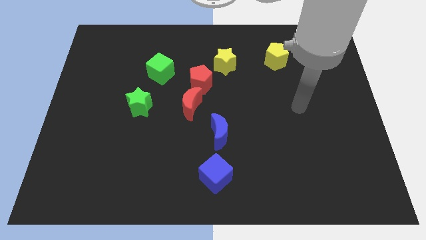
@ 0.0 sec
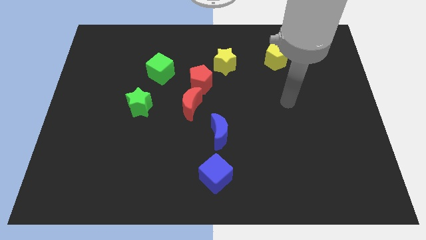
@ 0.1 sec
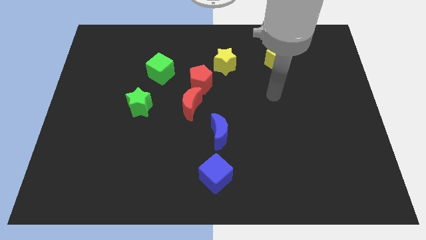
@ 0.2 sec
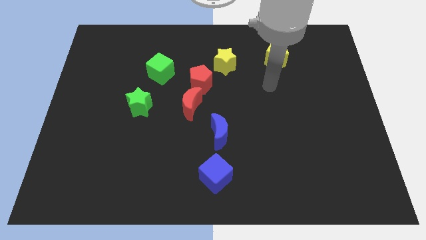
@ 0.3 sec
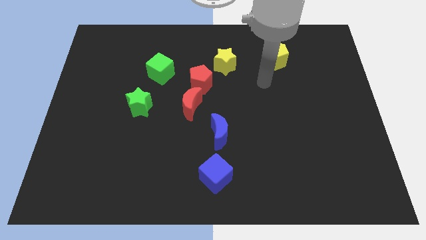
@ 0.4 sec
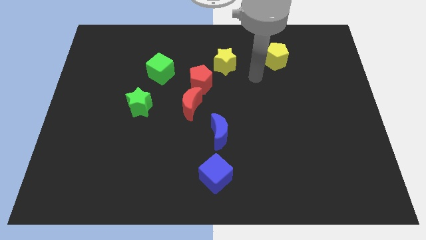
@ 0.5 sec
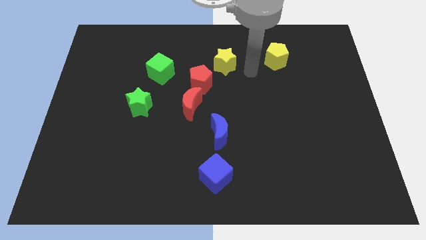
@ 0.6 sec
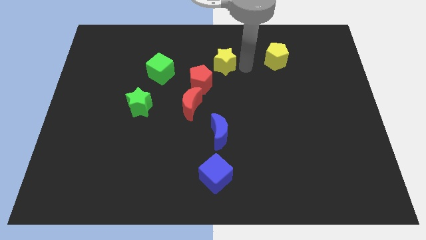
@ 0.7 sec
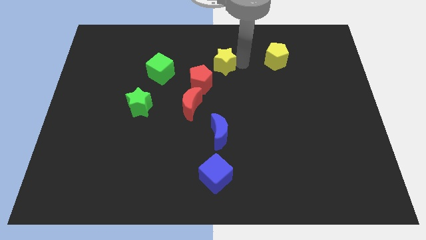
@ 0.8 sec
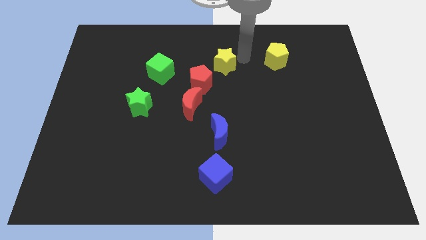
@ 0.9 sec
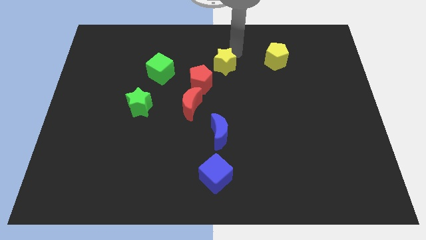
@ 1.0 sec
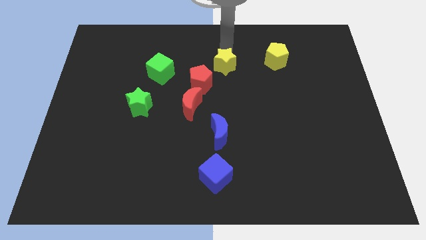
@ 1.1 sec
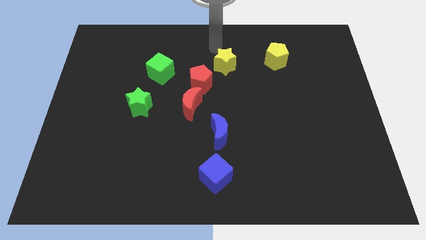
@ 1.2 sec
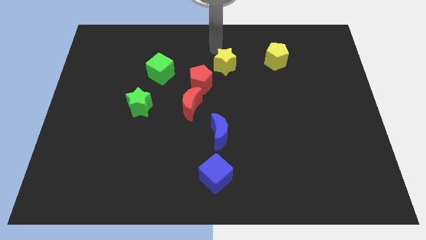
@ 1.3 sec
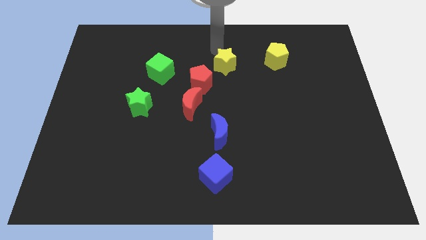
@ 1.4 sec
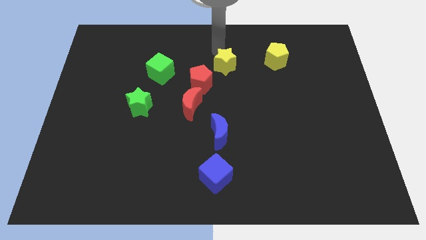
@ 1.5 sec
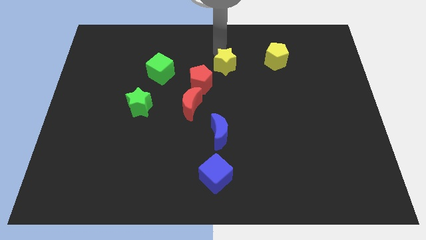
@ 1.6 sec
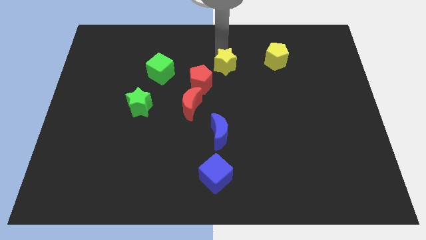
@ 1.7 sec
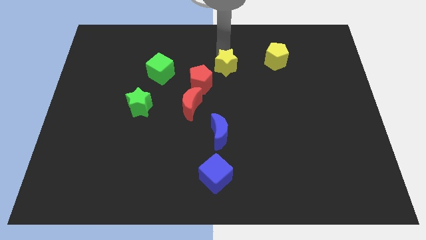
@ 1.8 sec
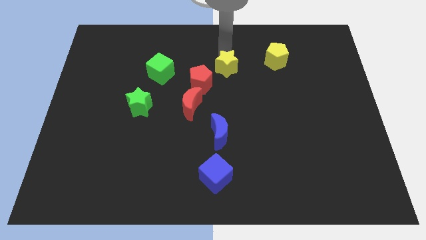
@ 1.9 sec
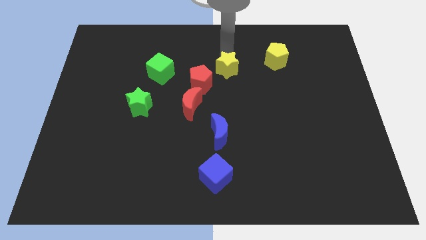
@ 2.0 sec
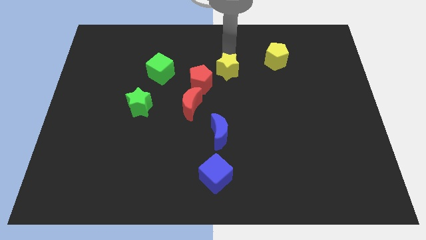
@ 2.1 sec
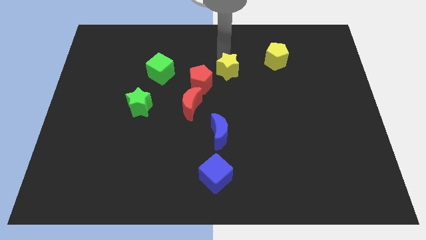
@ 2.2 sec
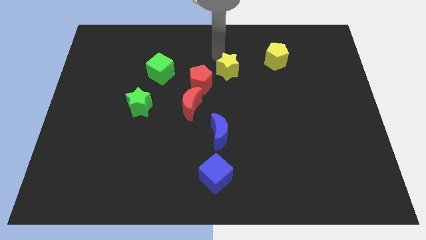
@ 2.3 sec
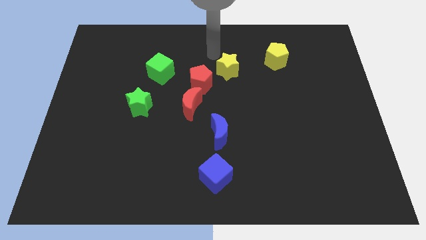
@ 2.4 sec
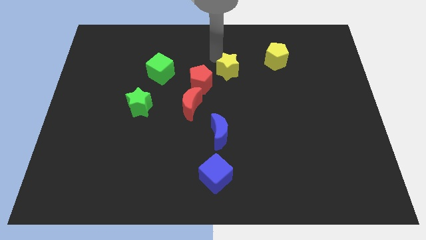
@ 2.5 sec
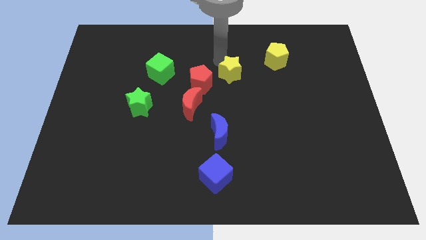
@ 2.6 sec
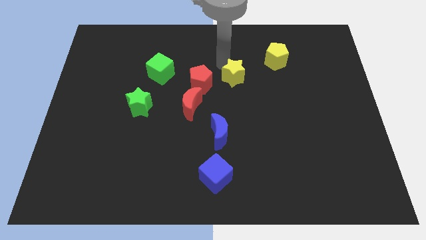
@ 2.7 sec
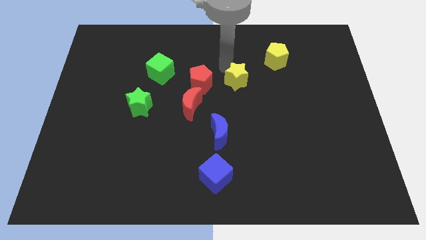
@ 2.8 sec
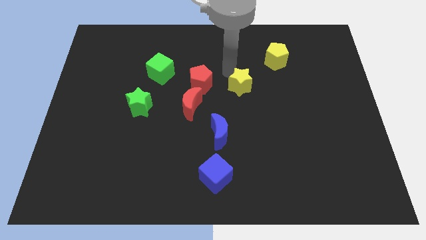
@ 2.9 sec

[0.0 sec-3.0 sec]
slide the yellow star downwards and to the right diagonally a little bit

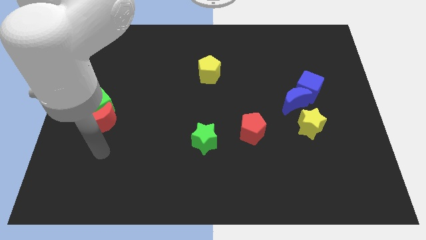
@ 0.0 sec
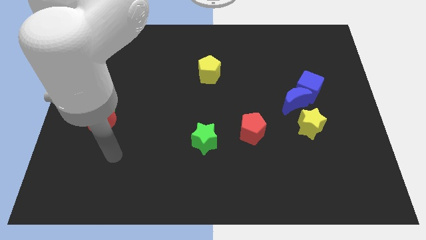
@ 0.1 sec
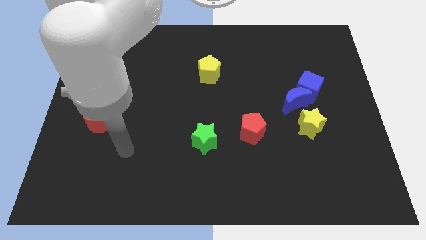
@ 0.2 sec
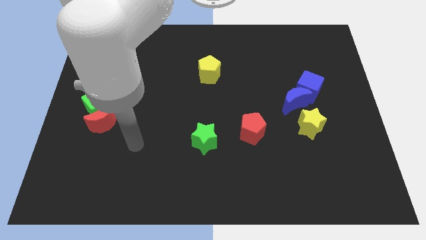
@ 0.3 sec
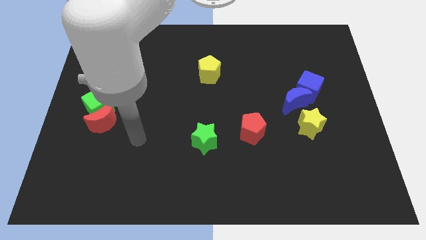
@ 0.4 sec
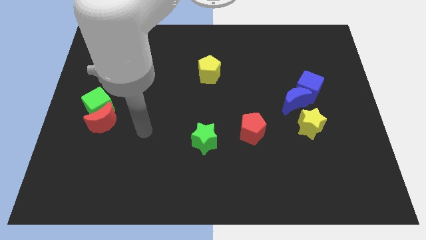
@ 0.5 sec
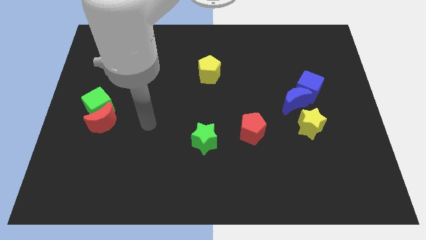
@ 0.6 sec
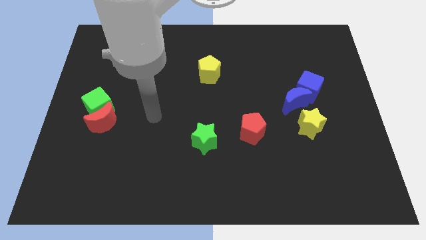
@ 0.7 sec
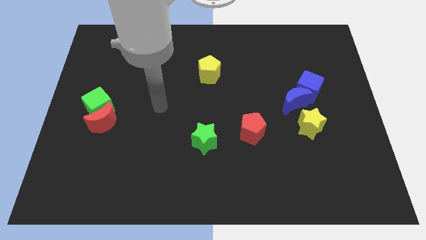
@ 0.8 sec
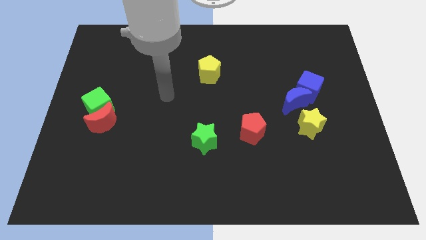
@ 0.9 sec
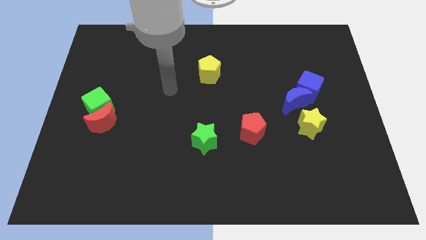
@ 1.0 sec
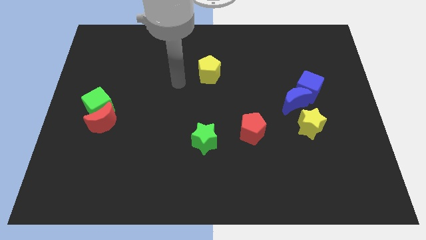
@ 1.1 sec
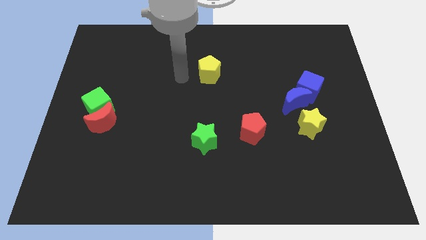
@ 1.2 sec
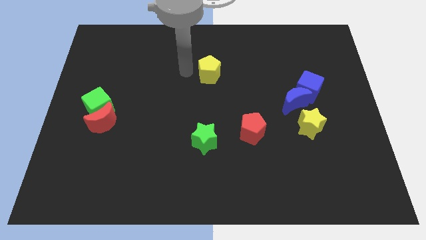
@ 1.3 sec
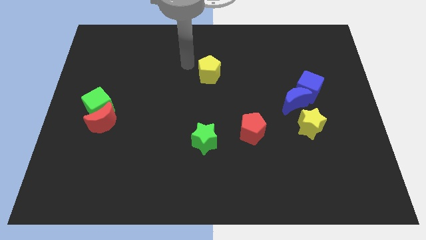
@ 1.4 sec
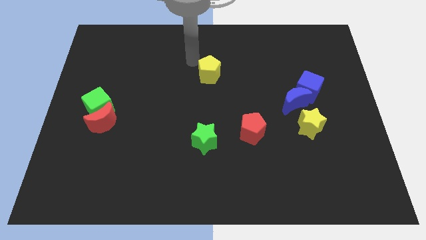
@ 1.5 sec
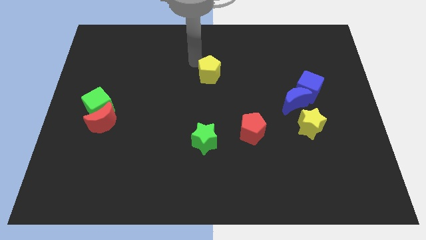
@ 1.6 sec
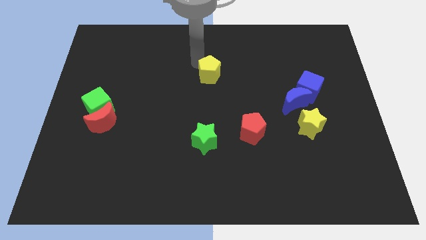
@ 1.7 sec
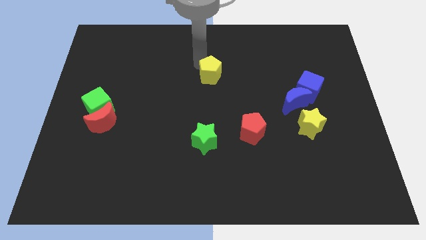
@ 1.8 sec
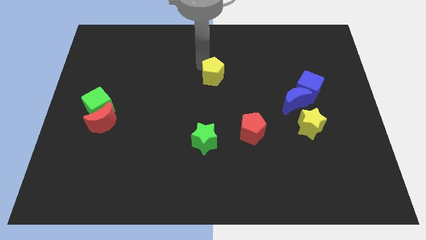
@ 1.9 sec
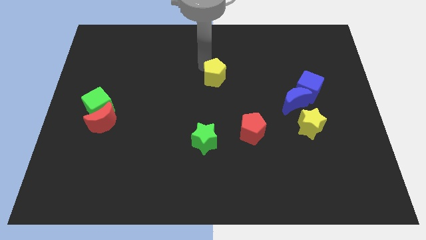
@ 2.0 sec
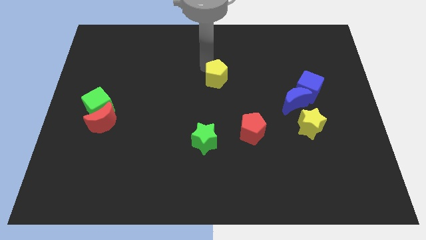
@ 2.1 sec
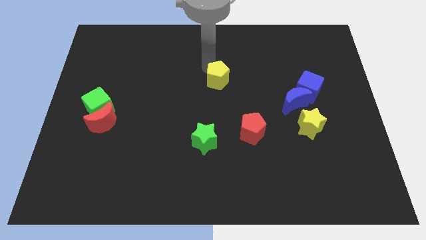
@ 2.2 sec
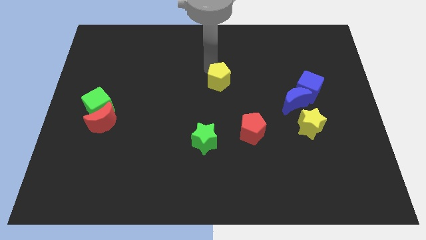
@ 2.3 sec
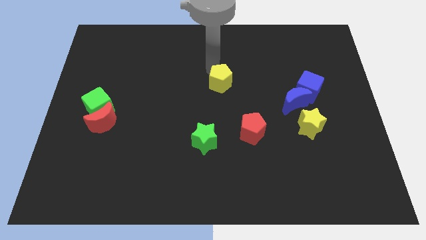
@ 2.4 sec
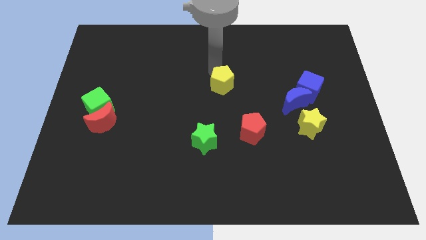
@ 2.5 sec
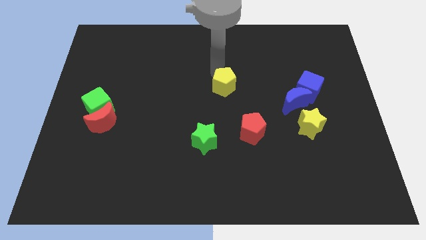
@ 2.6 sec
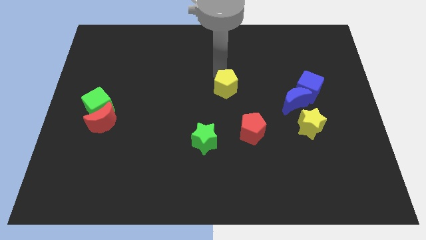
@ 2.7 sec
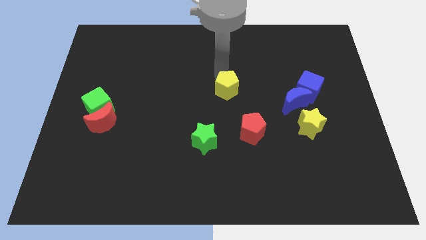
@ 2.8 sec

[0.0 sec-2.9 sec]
slightly slide the yellow pentagon down and to the right

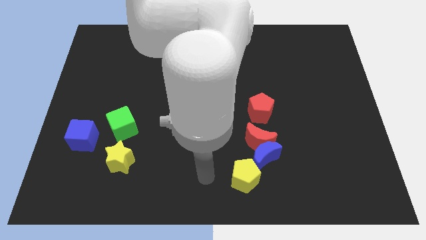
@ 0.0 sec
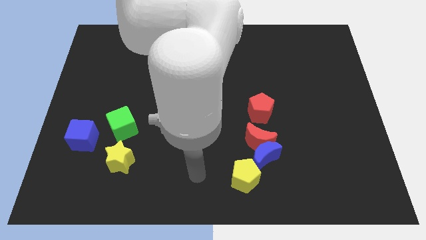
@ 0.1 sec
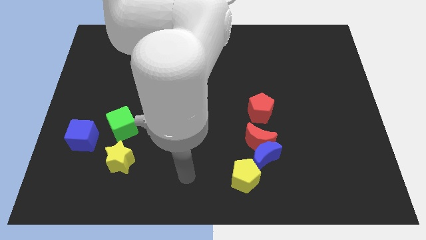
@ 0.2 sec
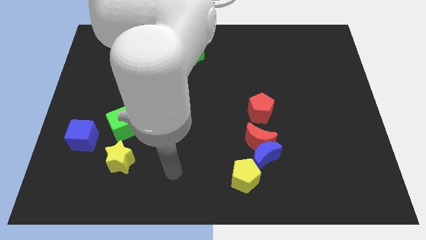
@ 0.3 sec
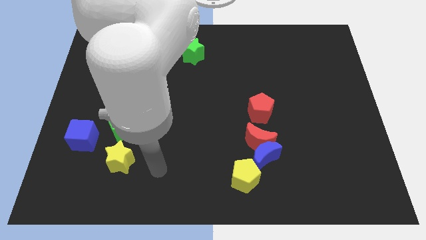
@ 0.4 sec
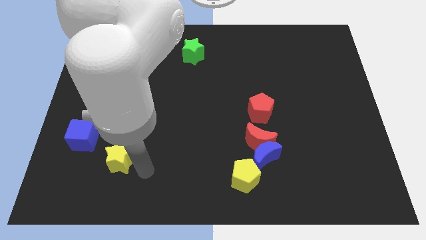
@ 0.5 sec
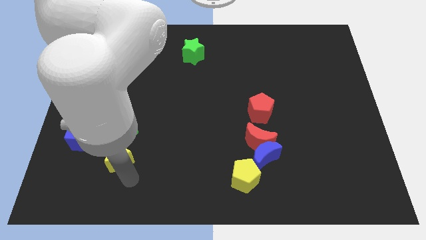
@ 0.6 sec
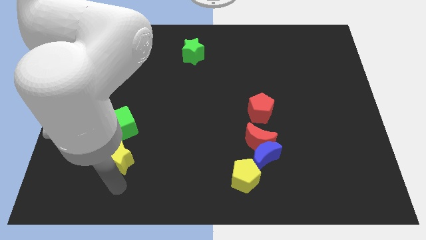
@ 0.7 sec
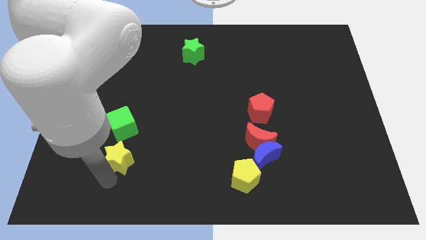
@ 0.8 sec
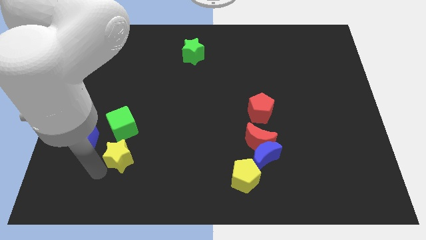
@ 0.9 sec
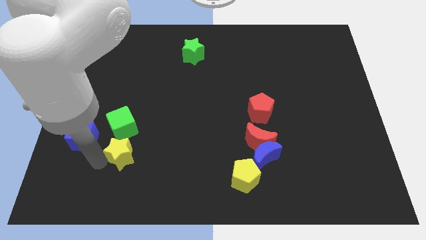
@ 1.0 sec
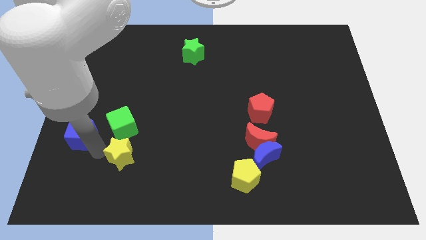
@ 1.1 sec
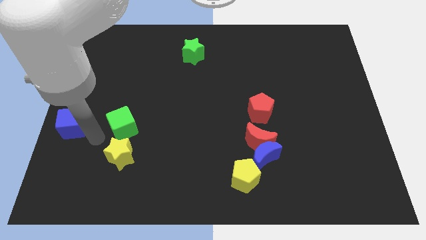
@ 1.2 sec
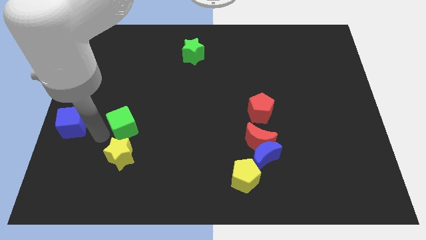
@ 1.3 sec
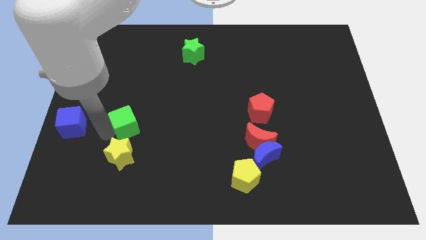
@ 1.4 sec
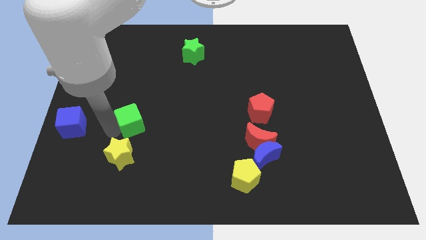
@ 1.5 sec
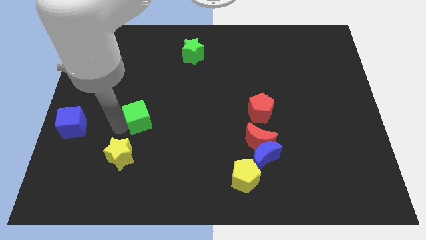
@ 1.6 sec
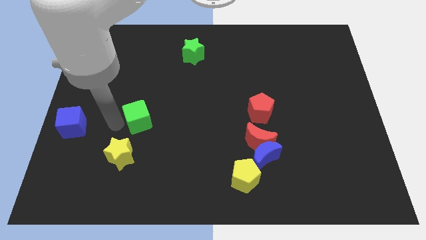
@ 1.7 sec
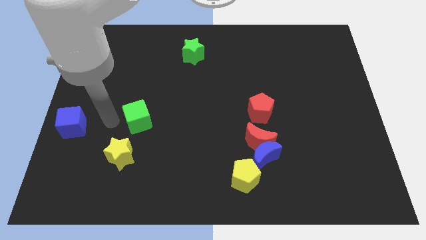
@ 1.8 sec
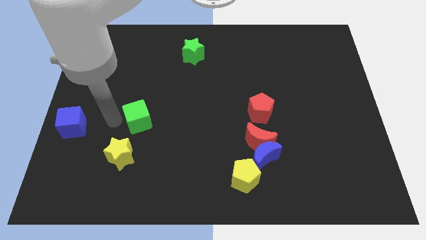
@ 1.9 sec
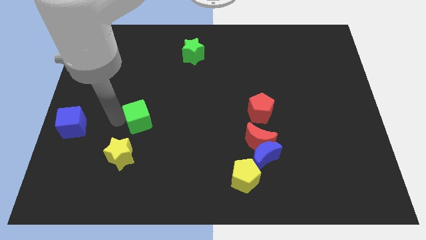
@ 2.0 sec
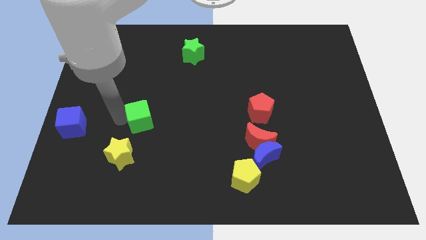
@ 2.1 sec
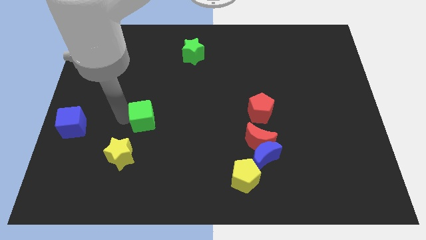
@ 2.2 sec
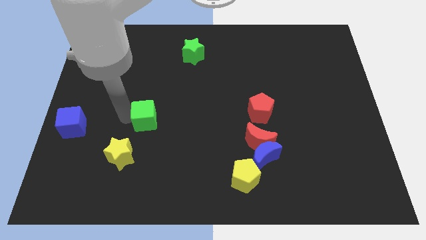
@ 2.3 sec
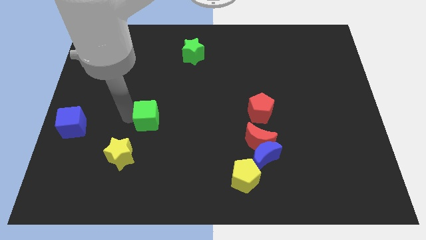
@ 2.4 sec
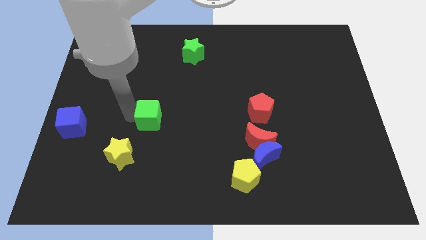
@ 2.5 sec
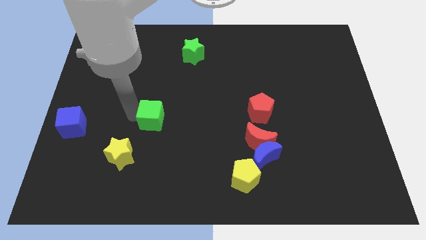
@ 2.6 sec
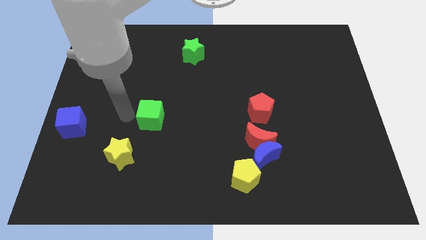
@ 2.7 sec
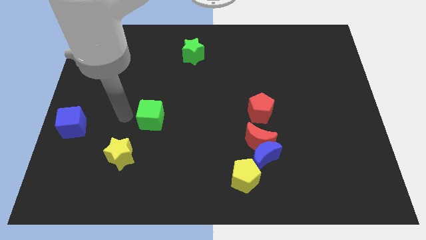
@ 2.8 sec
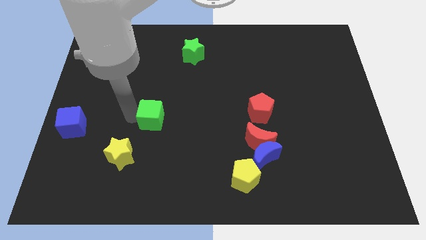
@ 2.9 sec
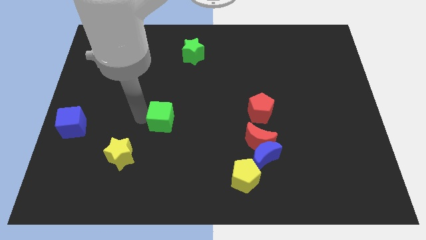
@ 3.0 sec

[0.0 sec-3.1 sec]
move the green cube right a bit
